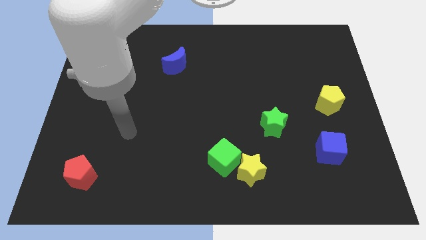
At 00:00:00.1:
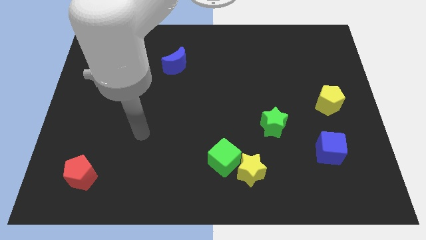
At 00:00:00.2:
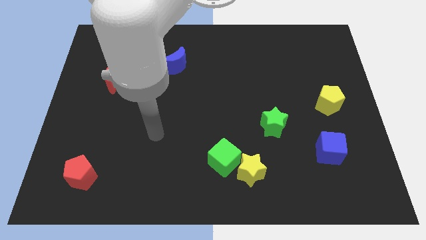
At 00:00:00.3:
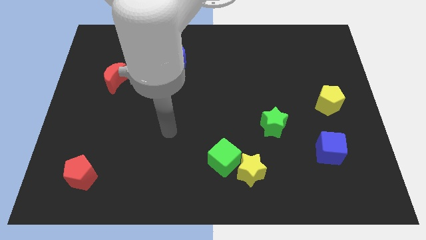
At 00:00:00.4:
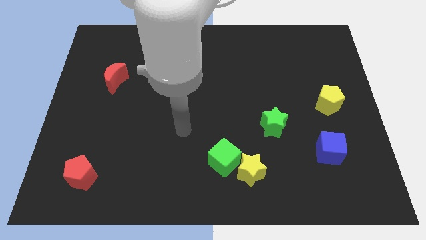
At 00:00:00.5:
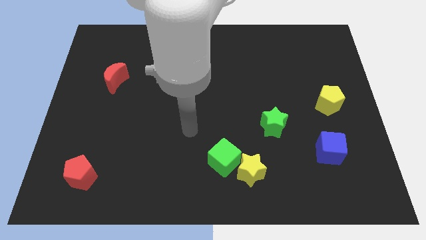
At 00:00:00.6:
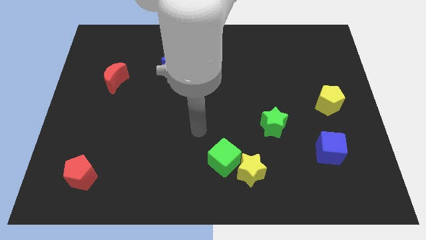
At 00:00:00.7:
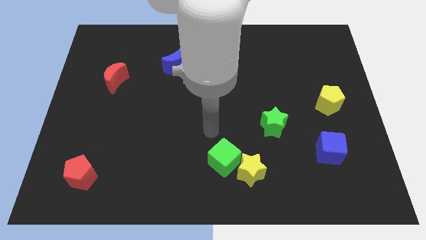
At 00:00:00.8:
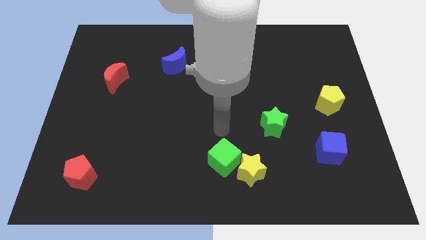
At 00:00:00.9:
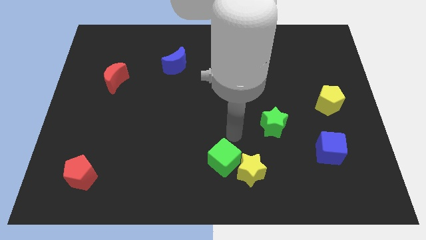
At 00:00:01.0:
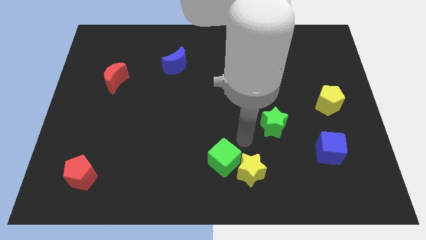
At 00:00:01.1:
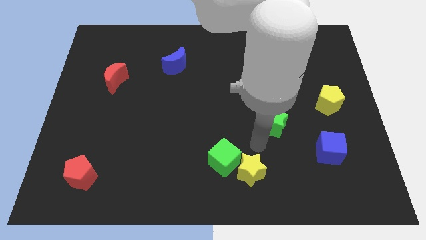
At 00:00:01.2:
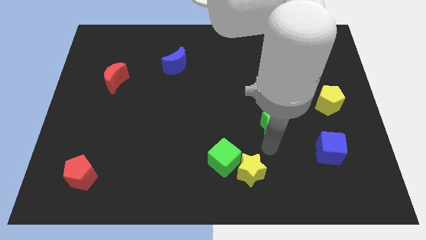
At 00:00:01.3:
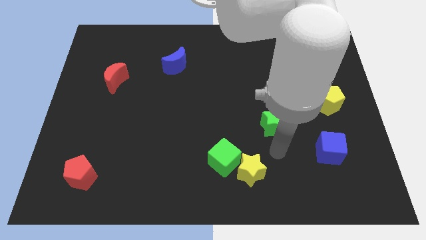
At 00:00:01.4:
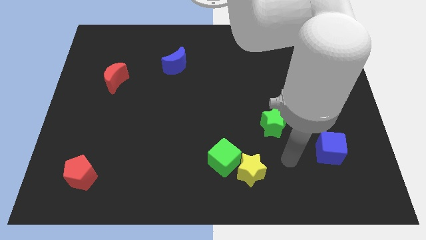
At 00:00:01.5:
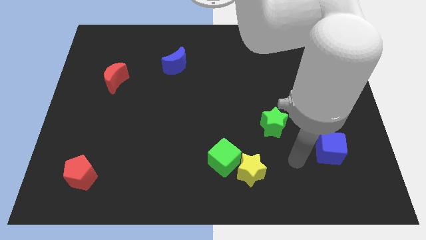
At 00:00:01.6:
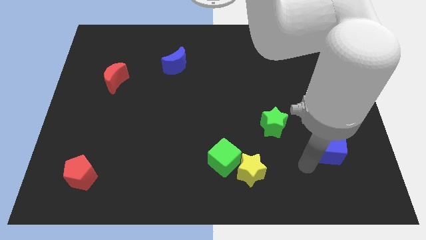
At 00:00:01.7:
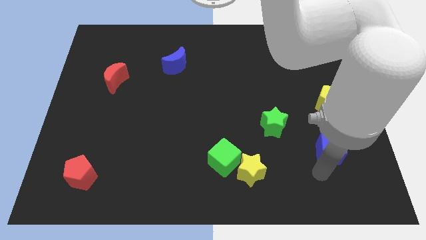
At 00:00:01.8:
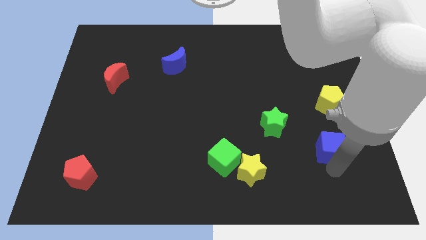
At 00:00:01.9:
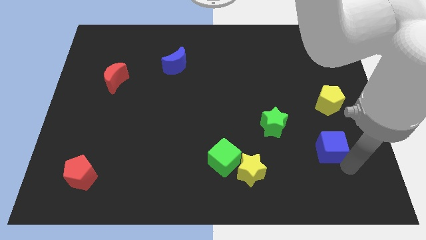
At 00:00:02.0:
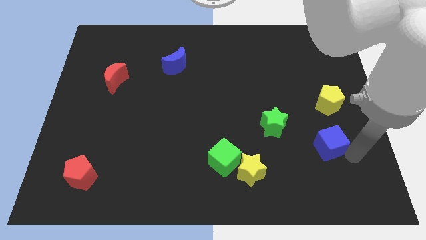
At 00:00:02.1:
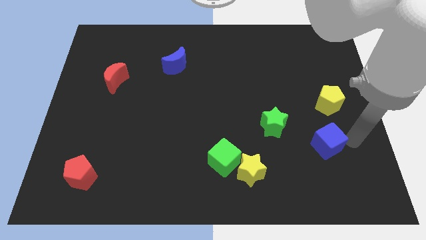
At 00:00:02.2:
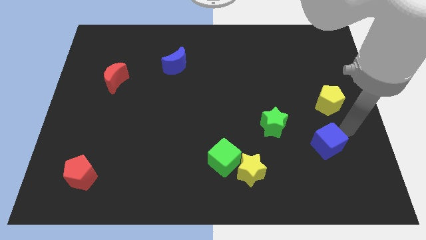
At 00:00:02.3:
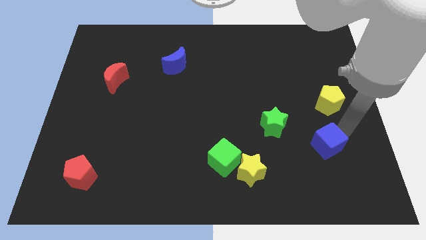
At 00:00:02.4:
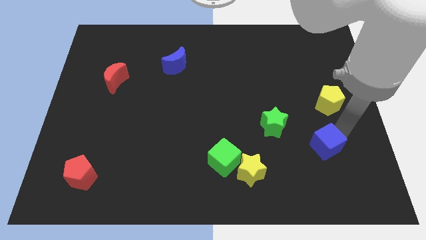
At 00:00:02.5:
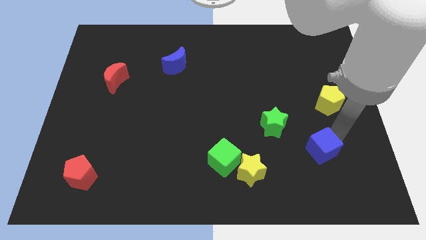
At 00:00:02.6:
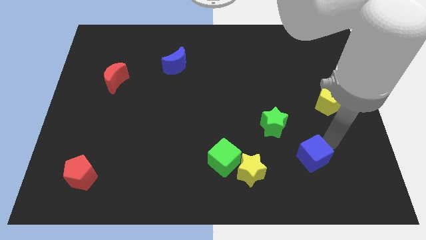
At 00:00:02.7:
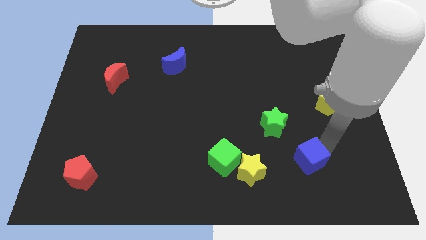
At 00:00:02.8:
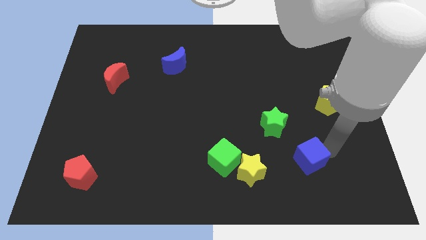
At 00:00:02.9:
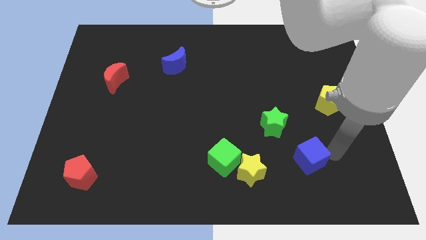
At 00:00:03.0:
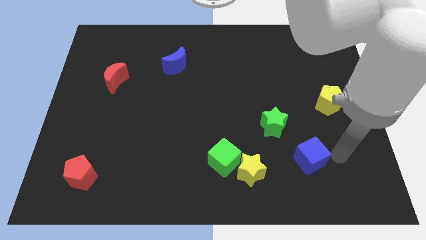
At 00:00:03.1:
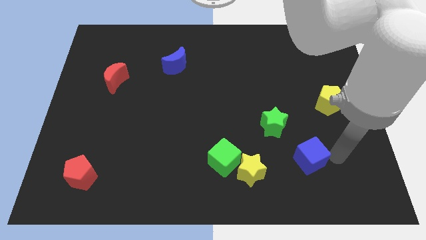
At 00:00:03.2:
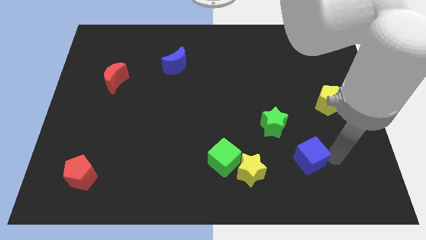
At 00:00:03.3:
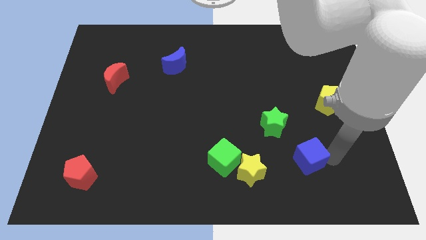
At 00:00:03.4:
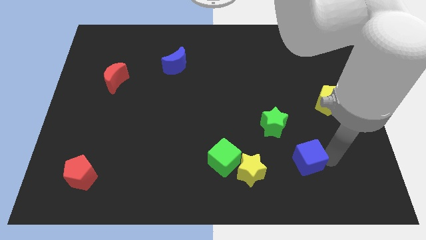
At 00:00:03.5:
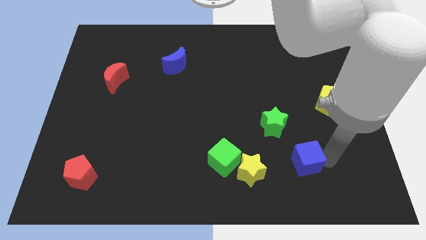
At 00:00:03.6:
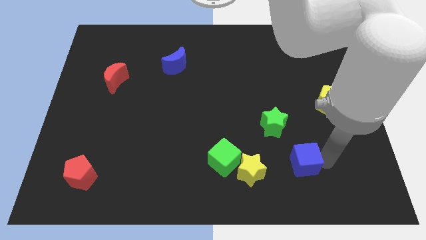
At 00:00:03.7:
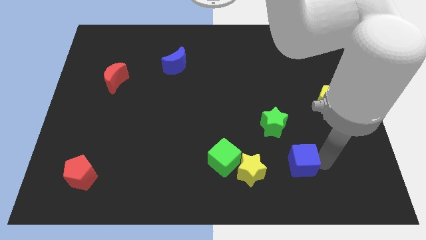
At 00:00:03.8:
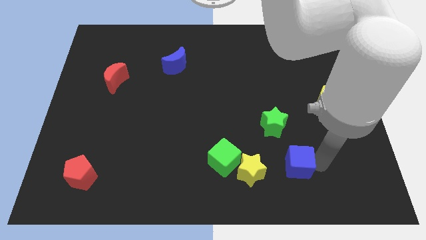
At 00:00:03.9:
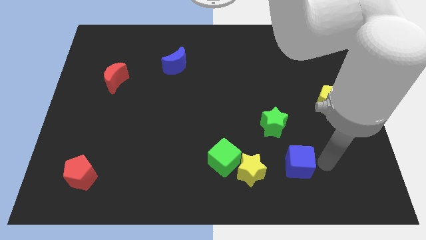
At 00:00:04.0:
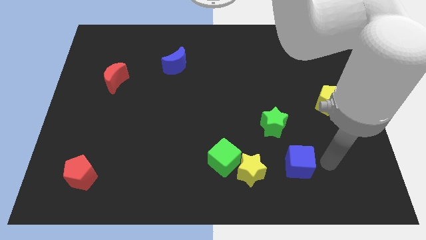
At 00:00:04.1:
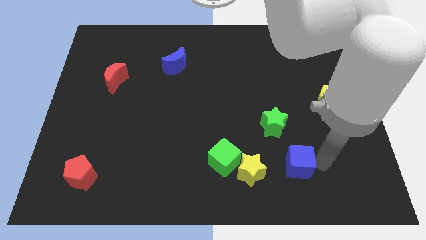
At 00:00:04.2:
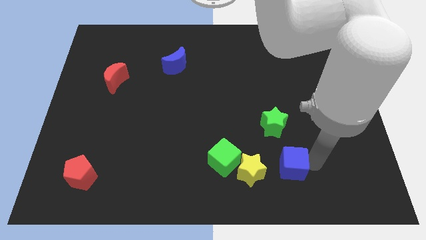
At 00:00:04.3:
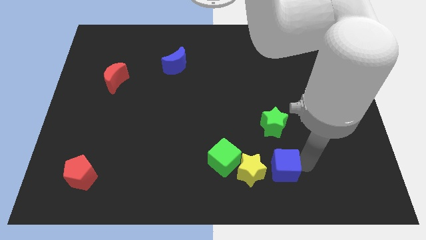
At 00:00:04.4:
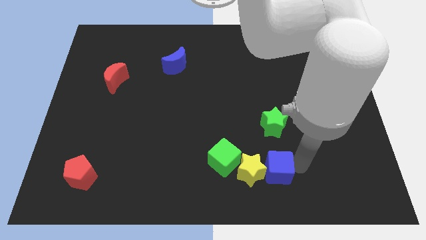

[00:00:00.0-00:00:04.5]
put the blue cube towards the yellow star

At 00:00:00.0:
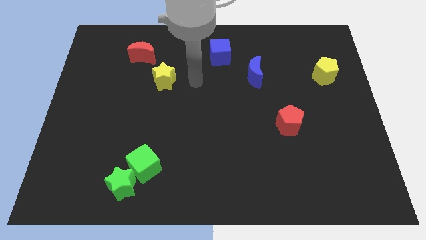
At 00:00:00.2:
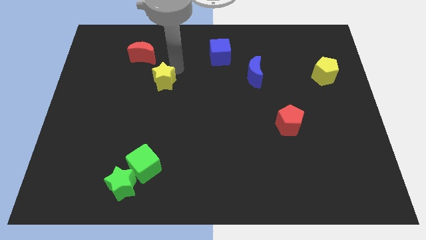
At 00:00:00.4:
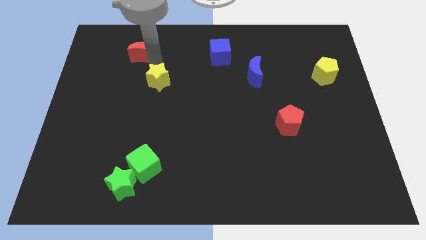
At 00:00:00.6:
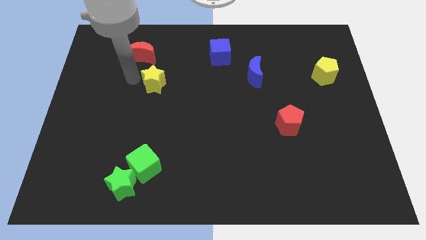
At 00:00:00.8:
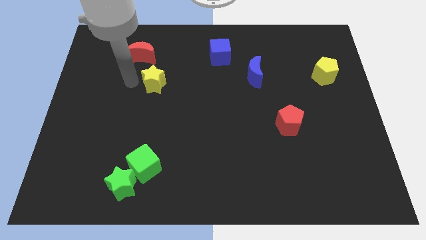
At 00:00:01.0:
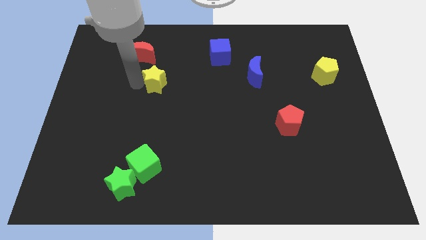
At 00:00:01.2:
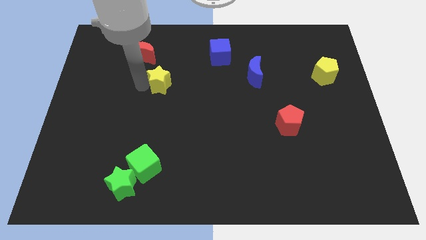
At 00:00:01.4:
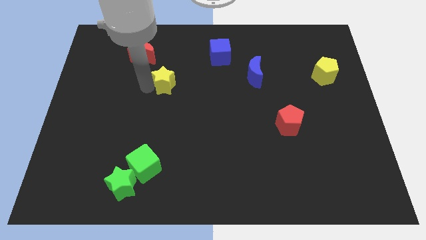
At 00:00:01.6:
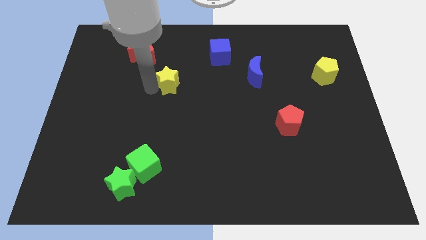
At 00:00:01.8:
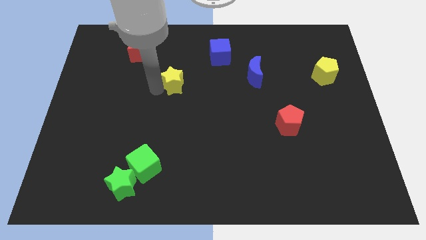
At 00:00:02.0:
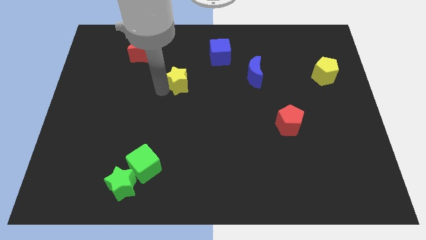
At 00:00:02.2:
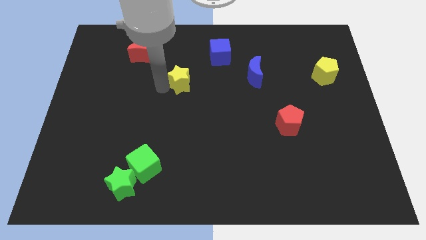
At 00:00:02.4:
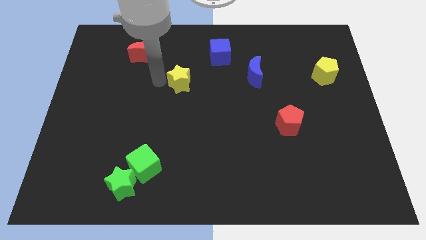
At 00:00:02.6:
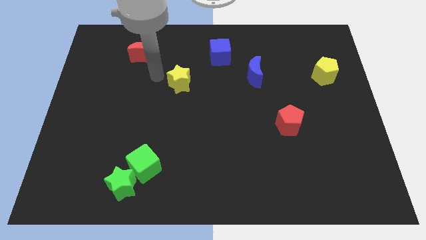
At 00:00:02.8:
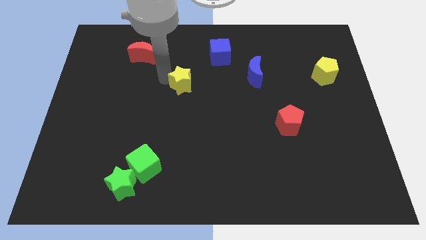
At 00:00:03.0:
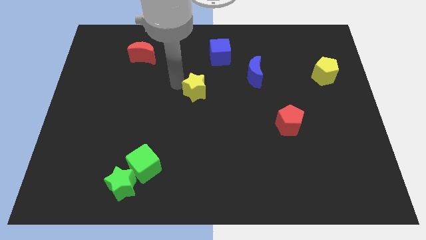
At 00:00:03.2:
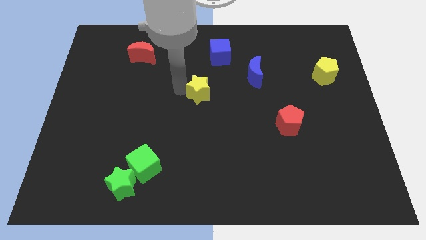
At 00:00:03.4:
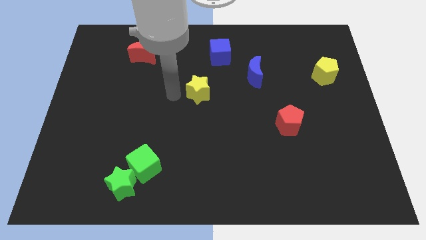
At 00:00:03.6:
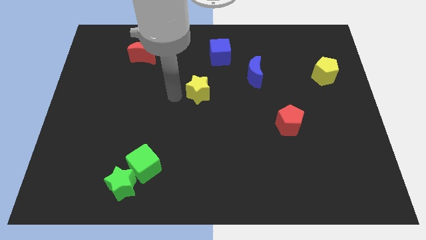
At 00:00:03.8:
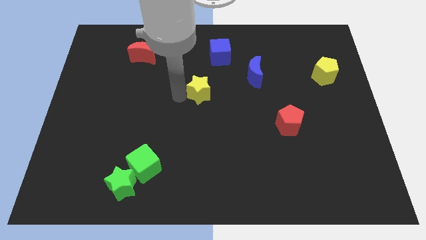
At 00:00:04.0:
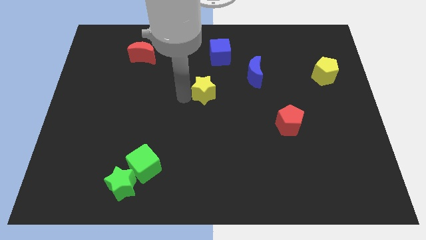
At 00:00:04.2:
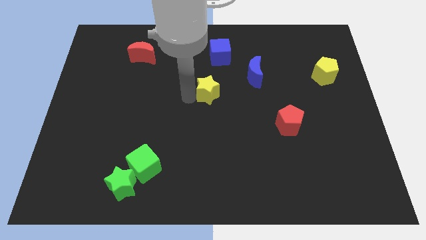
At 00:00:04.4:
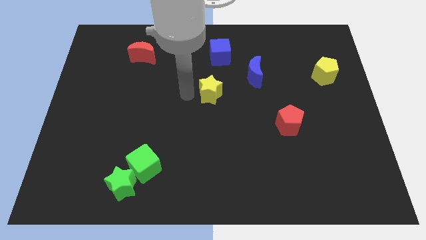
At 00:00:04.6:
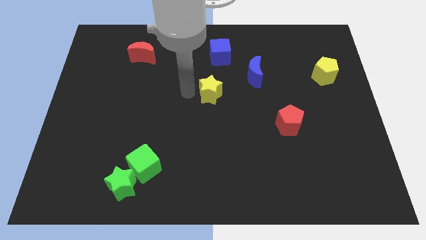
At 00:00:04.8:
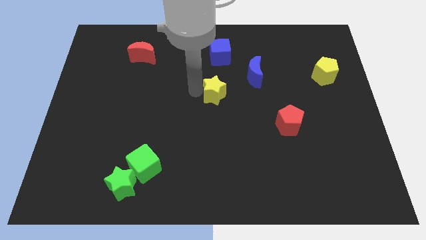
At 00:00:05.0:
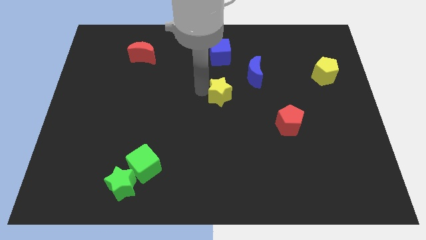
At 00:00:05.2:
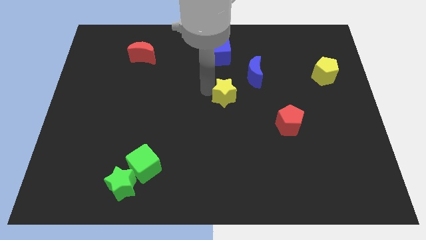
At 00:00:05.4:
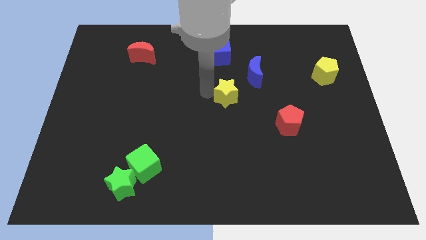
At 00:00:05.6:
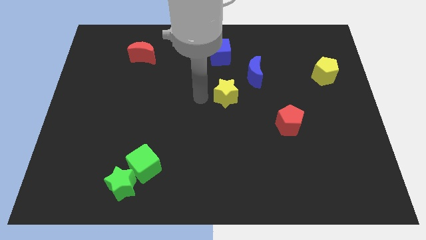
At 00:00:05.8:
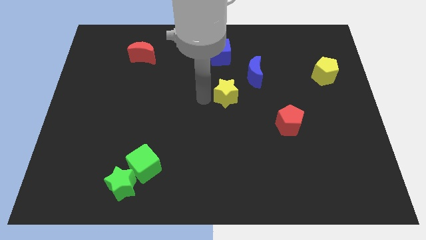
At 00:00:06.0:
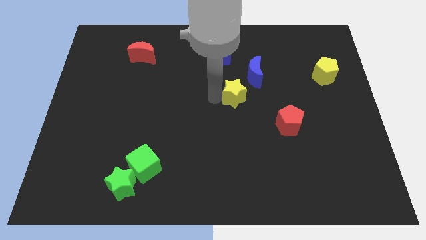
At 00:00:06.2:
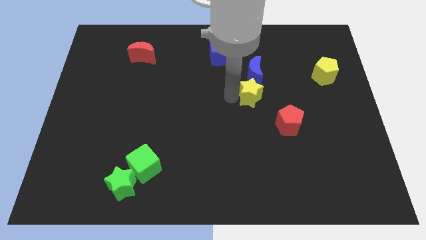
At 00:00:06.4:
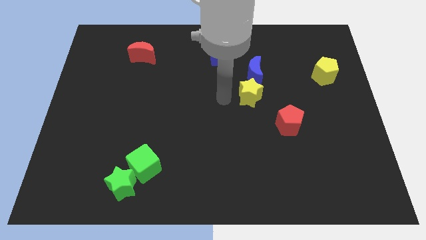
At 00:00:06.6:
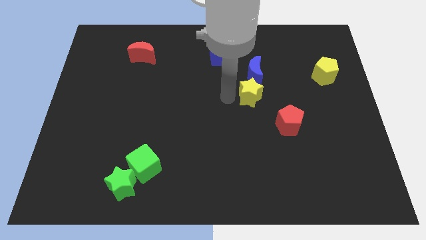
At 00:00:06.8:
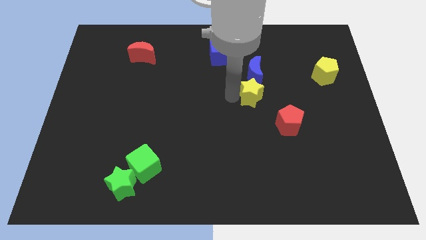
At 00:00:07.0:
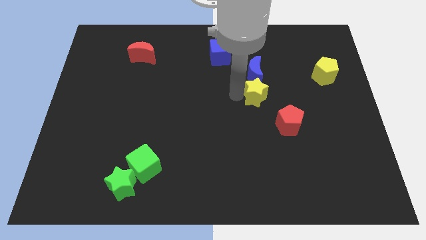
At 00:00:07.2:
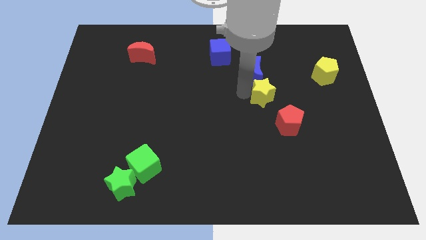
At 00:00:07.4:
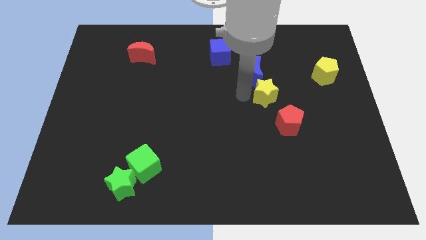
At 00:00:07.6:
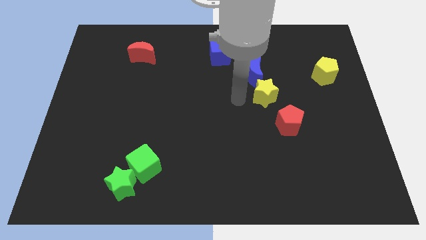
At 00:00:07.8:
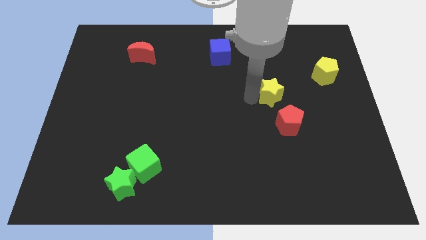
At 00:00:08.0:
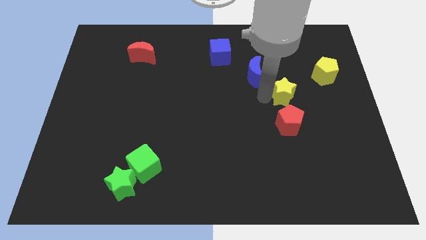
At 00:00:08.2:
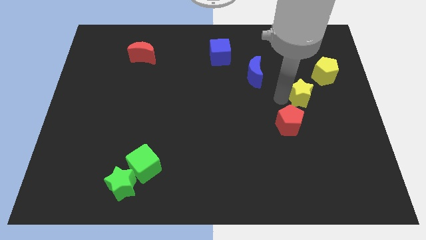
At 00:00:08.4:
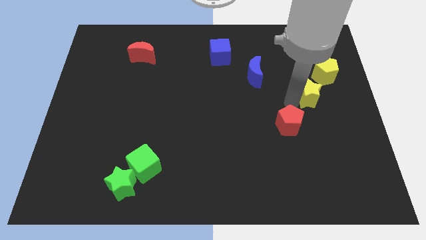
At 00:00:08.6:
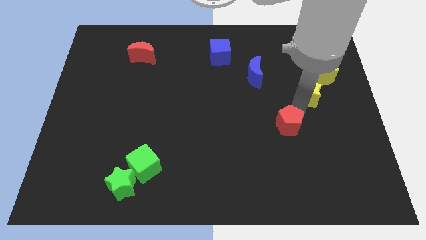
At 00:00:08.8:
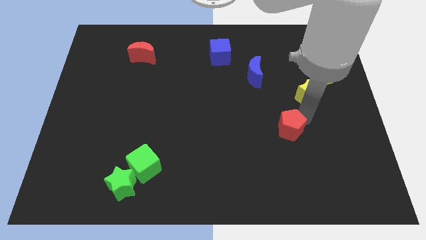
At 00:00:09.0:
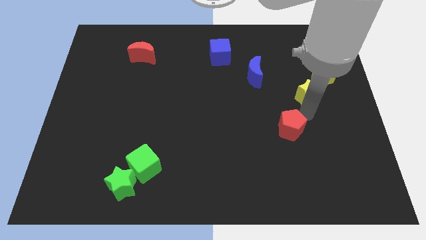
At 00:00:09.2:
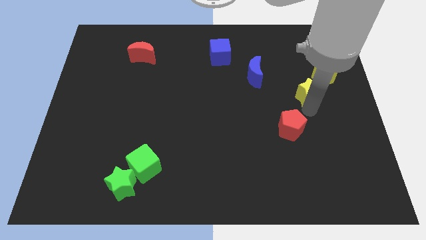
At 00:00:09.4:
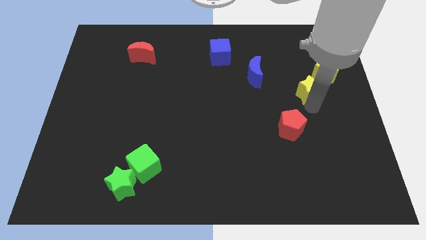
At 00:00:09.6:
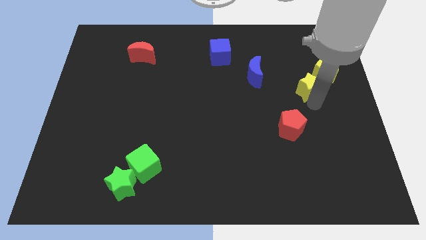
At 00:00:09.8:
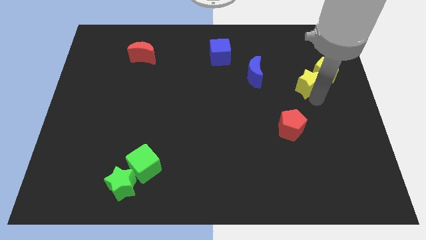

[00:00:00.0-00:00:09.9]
put the yellow star next to the yellow pentagon
